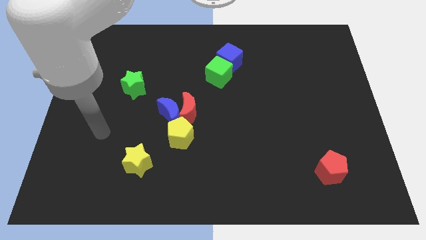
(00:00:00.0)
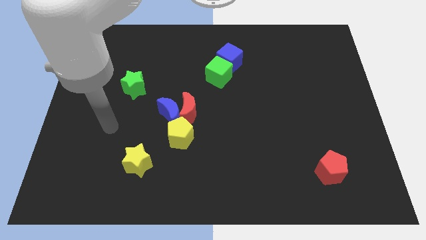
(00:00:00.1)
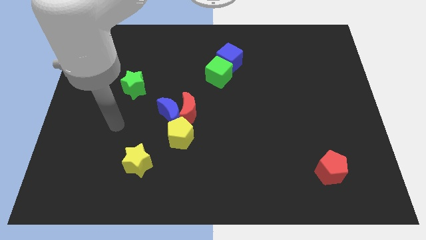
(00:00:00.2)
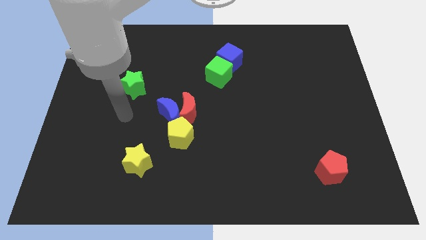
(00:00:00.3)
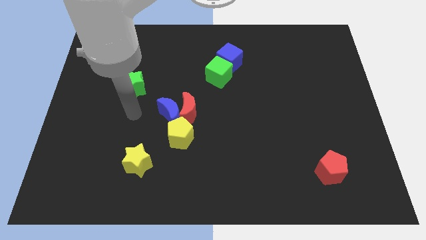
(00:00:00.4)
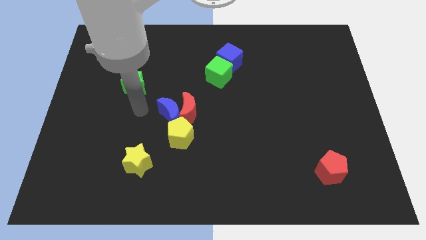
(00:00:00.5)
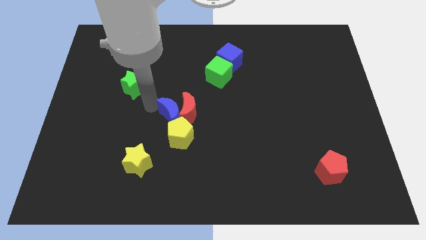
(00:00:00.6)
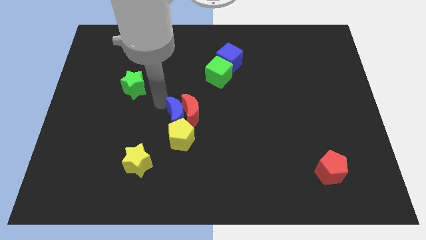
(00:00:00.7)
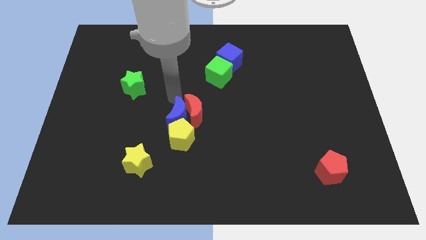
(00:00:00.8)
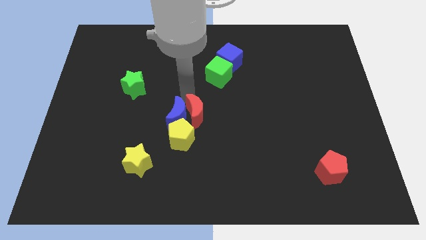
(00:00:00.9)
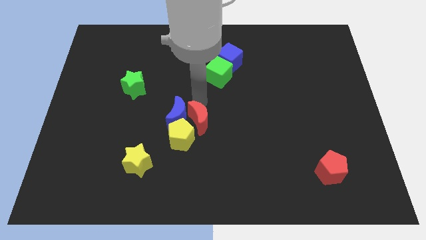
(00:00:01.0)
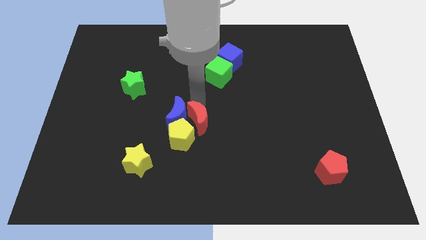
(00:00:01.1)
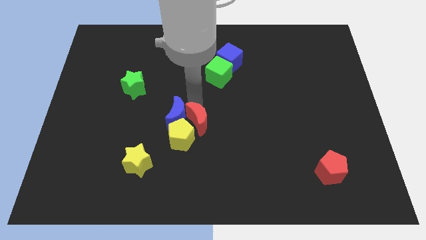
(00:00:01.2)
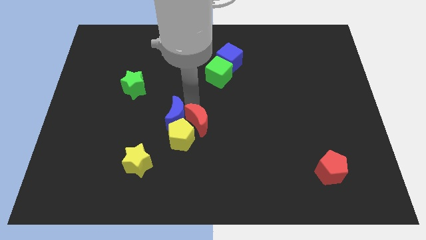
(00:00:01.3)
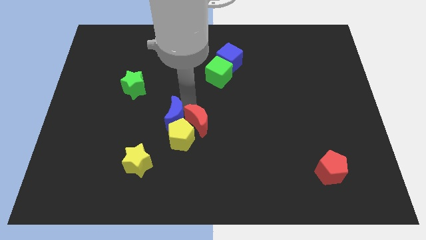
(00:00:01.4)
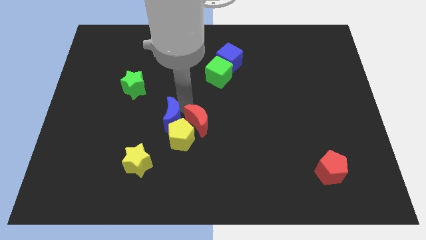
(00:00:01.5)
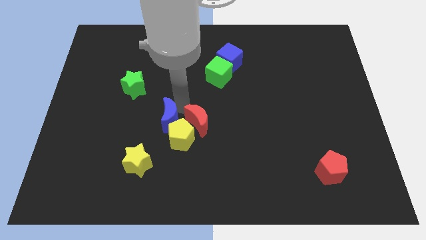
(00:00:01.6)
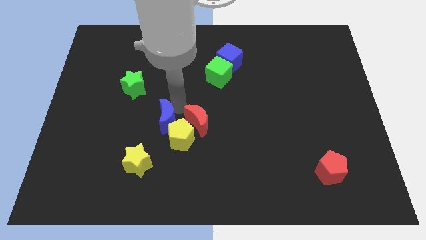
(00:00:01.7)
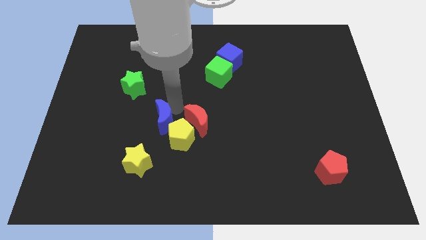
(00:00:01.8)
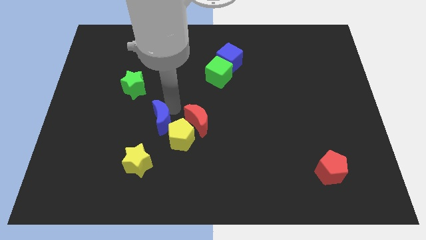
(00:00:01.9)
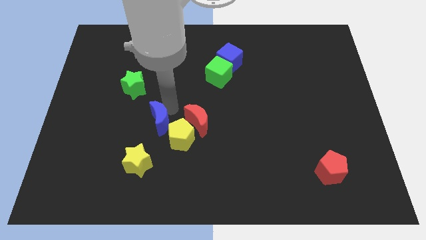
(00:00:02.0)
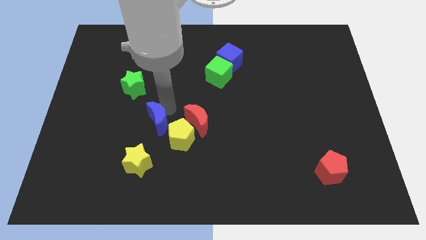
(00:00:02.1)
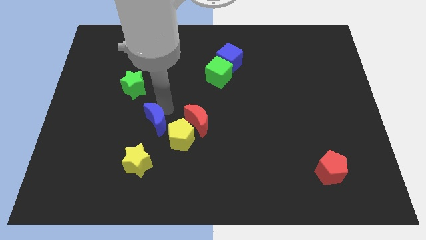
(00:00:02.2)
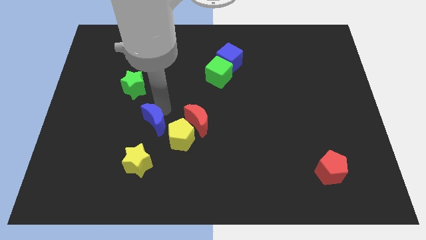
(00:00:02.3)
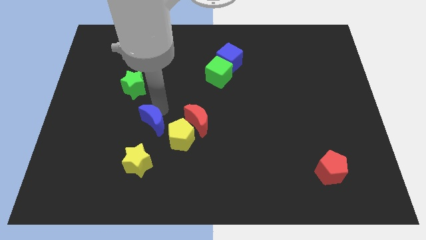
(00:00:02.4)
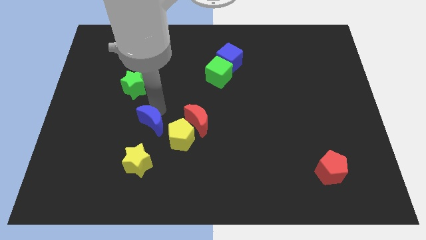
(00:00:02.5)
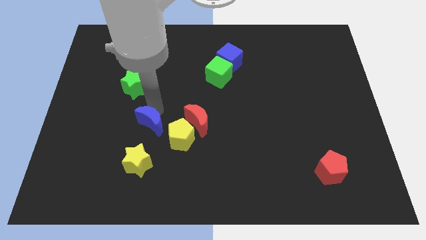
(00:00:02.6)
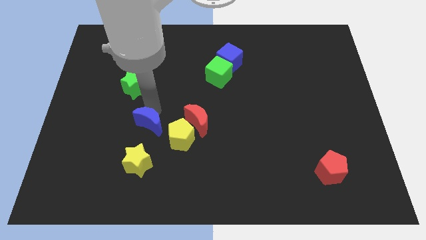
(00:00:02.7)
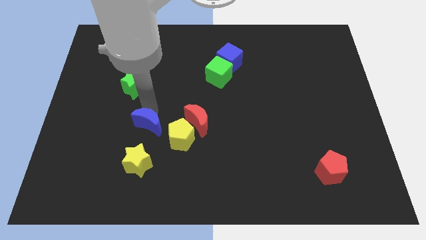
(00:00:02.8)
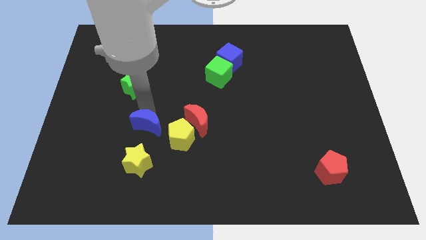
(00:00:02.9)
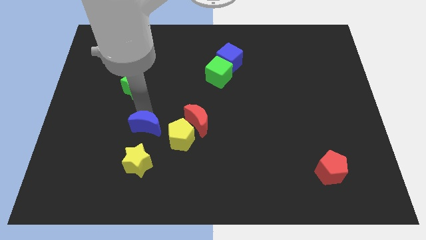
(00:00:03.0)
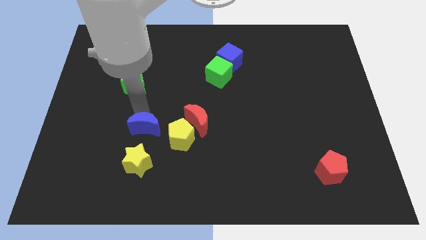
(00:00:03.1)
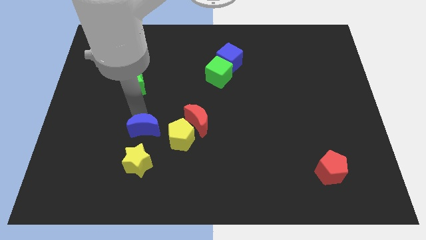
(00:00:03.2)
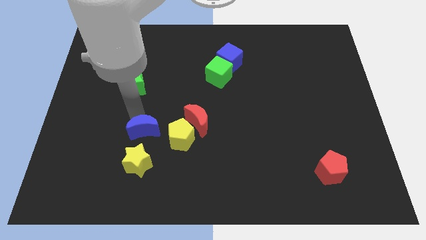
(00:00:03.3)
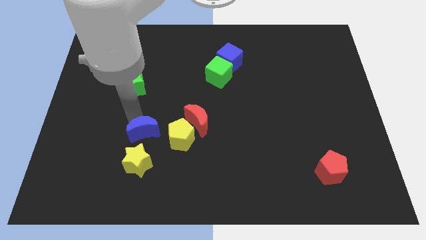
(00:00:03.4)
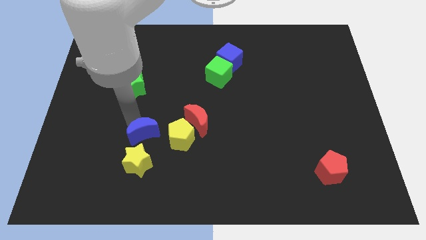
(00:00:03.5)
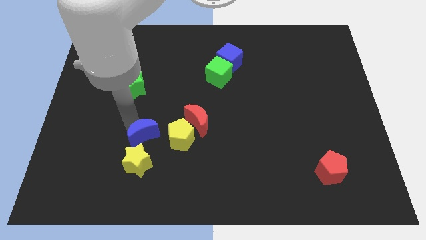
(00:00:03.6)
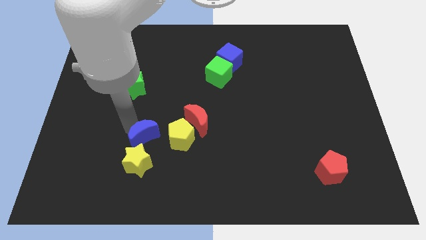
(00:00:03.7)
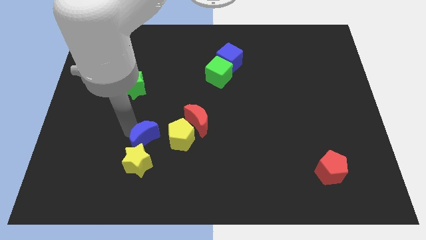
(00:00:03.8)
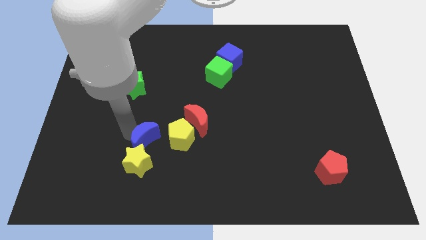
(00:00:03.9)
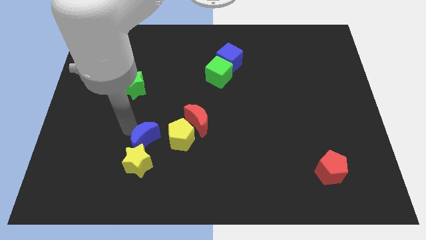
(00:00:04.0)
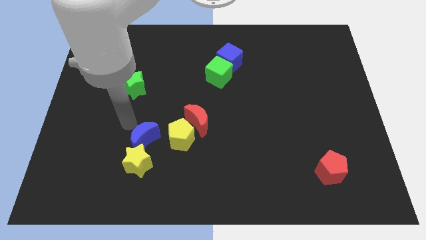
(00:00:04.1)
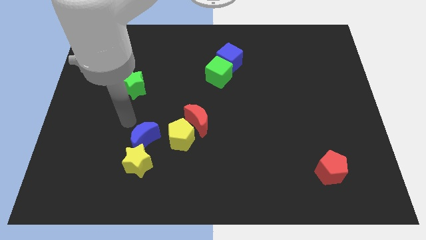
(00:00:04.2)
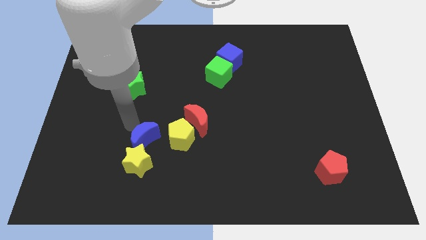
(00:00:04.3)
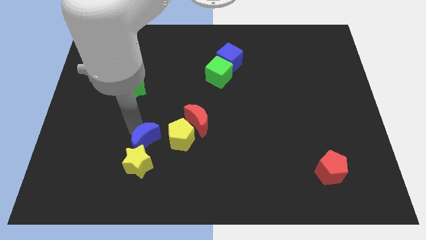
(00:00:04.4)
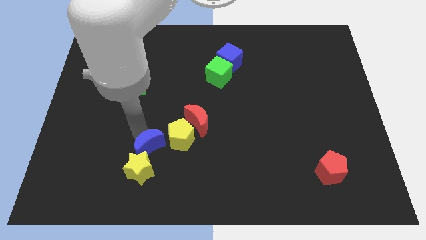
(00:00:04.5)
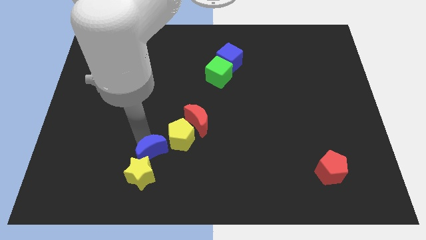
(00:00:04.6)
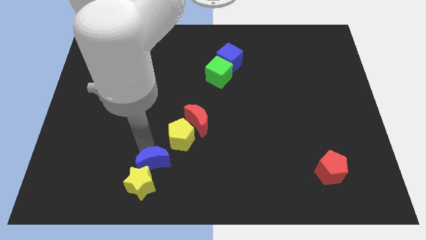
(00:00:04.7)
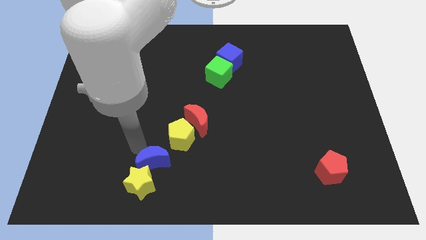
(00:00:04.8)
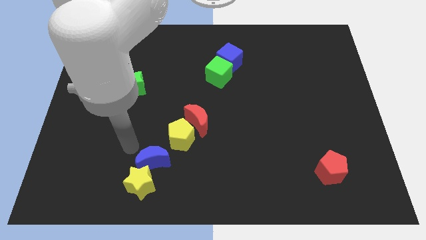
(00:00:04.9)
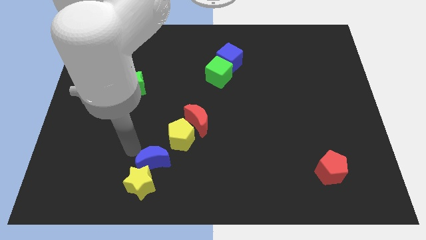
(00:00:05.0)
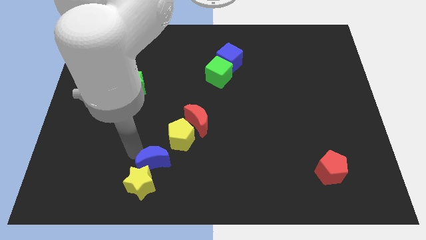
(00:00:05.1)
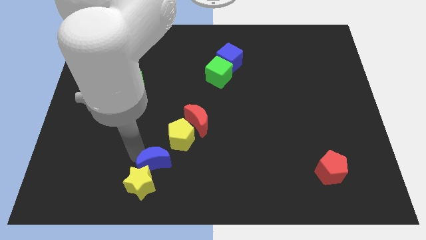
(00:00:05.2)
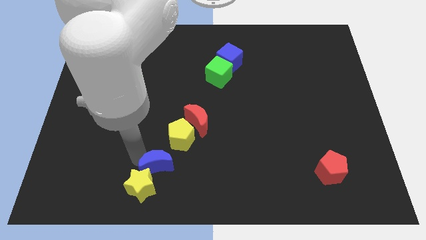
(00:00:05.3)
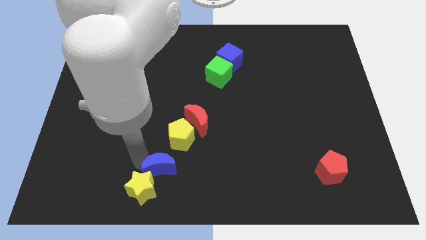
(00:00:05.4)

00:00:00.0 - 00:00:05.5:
slide the blue moon to the right side of the yellow star

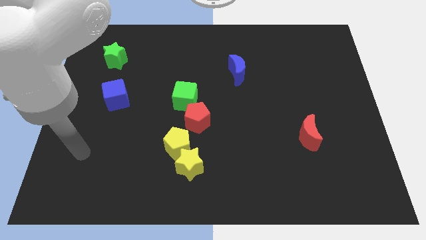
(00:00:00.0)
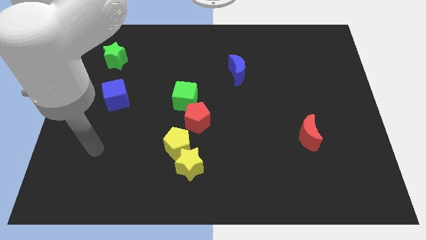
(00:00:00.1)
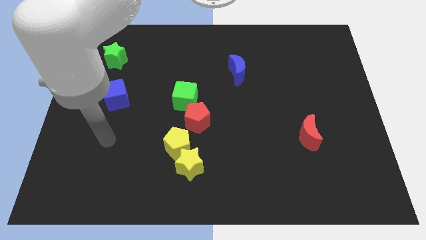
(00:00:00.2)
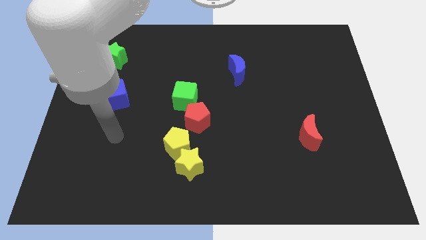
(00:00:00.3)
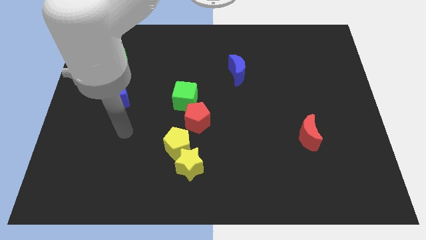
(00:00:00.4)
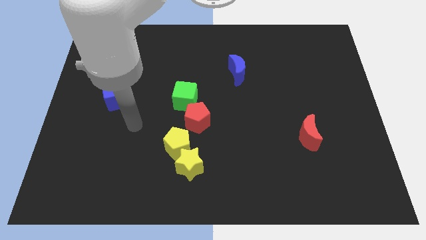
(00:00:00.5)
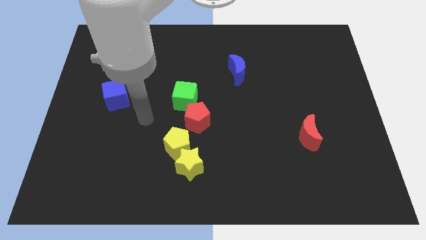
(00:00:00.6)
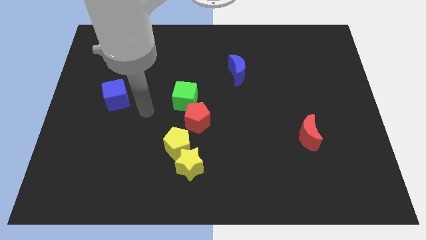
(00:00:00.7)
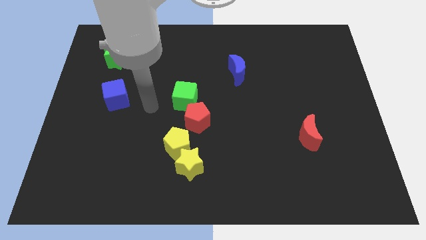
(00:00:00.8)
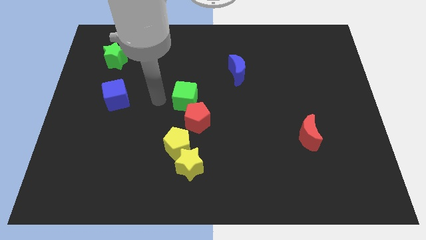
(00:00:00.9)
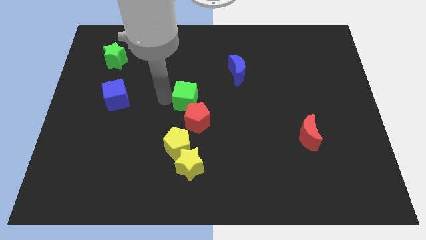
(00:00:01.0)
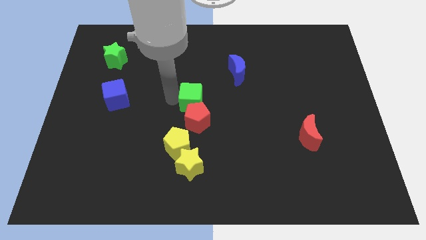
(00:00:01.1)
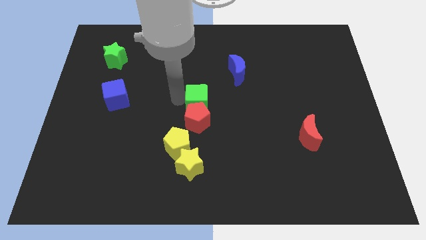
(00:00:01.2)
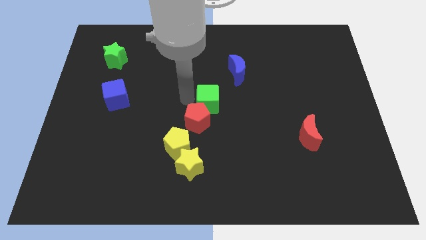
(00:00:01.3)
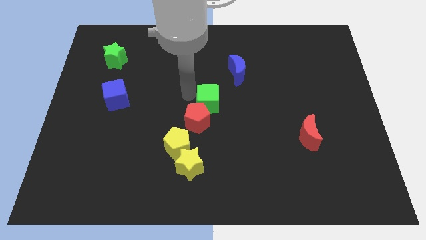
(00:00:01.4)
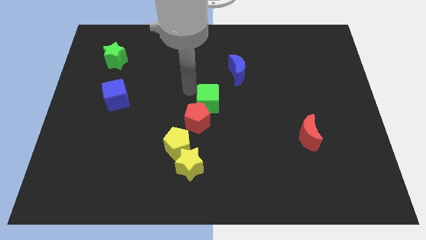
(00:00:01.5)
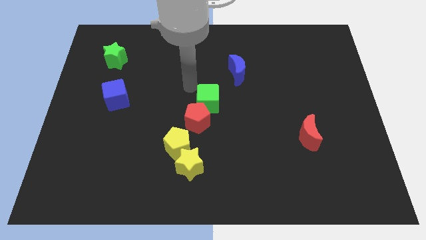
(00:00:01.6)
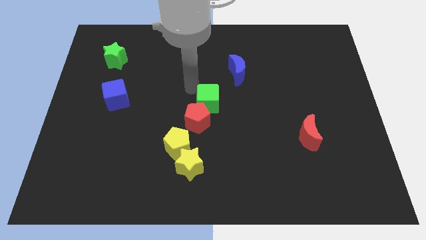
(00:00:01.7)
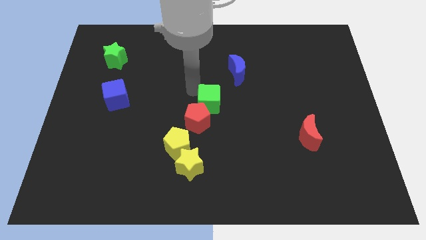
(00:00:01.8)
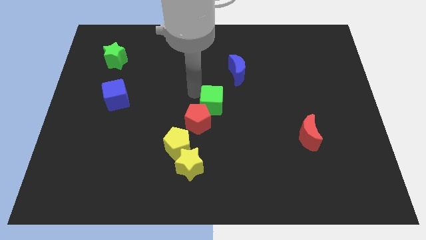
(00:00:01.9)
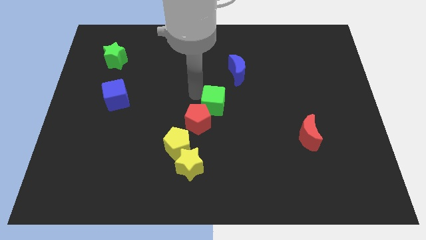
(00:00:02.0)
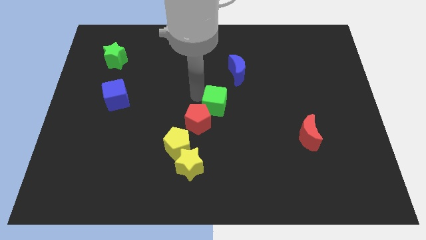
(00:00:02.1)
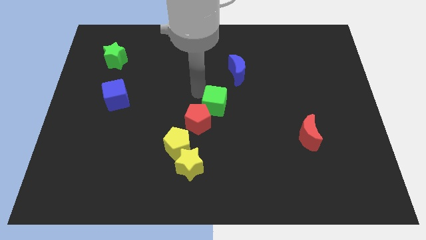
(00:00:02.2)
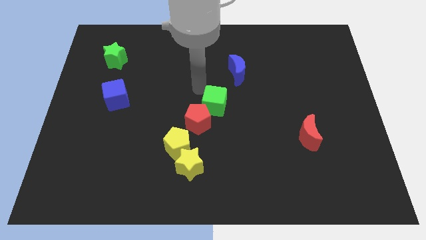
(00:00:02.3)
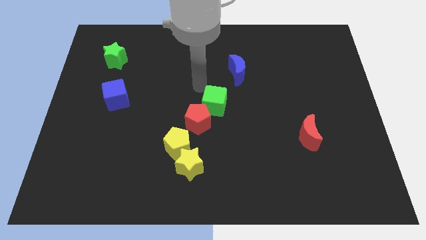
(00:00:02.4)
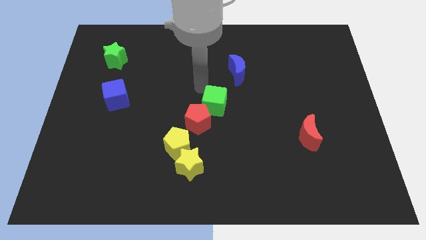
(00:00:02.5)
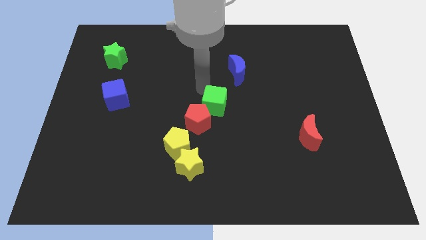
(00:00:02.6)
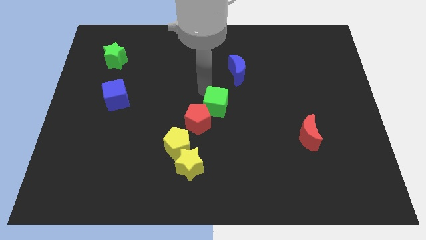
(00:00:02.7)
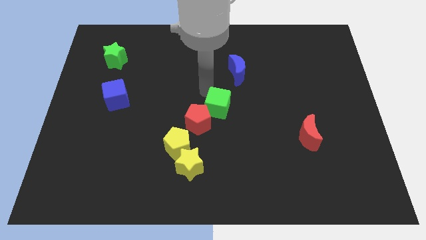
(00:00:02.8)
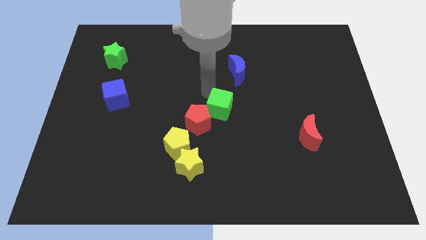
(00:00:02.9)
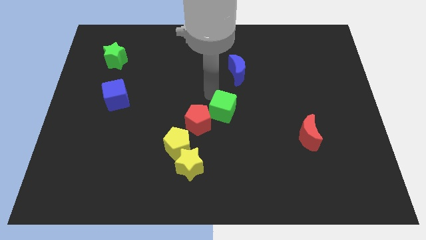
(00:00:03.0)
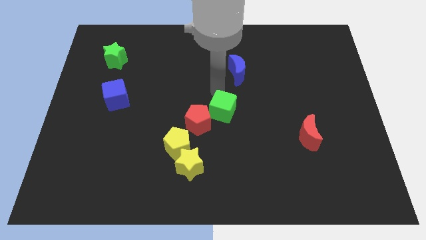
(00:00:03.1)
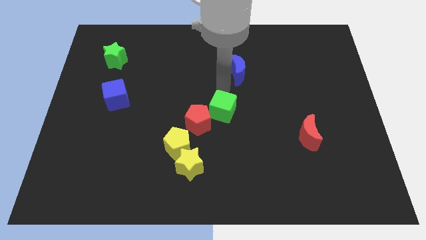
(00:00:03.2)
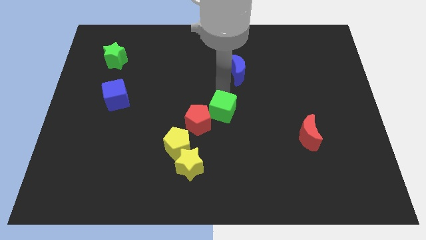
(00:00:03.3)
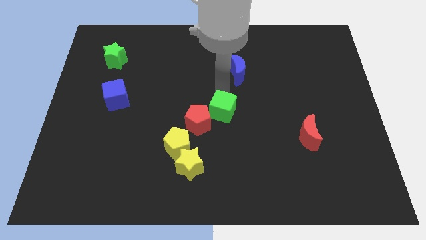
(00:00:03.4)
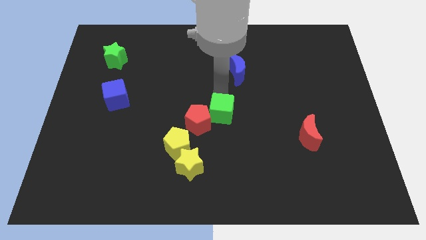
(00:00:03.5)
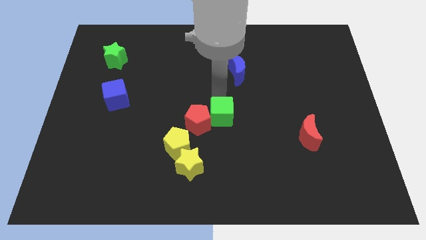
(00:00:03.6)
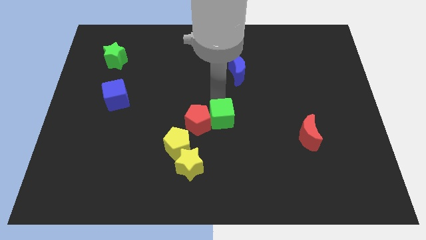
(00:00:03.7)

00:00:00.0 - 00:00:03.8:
slide the green cube to the bottom right side of the red pentagon
